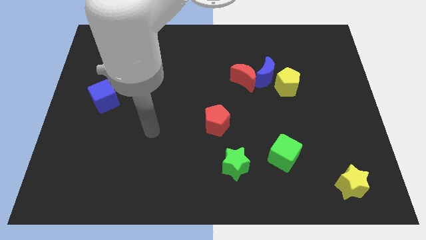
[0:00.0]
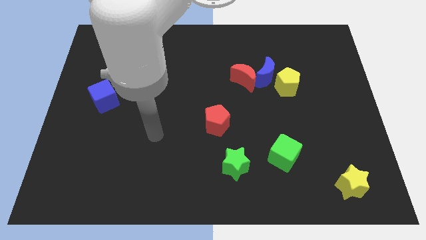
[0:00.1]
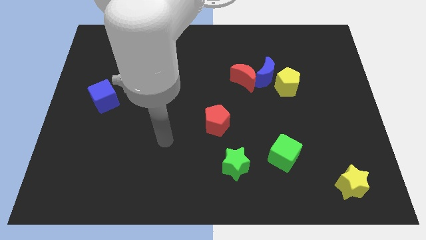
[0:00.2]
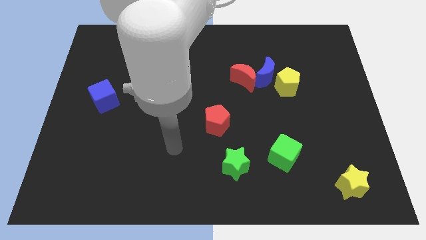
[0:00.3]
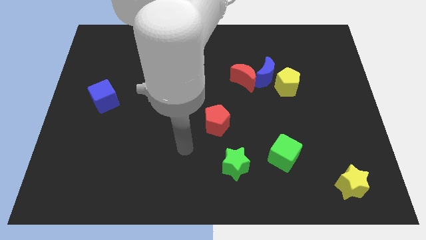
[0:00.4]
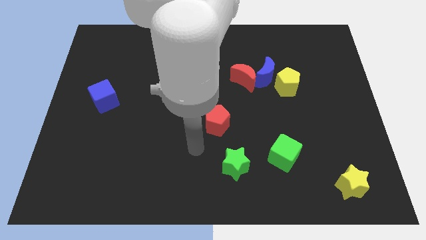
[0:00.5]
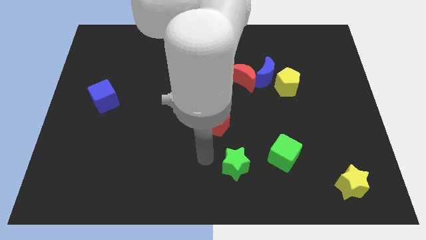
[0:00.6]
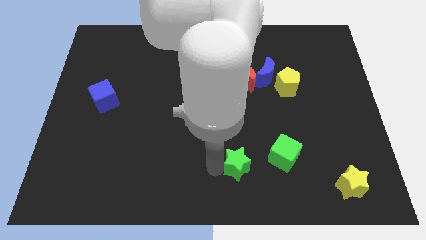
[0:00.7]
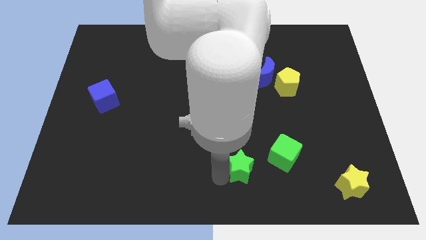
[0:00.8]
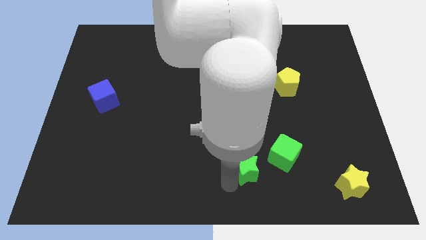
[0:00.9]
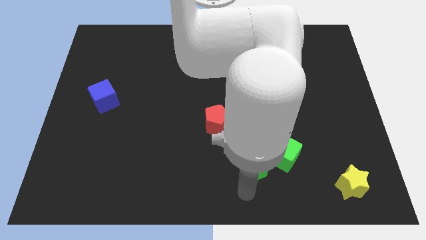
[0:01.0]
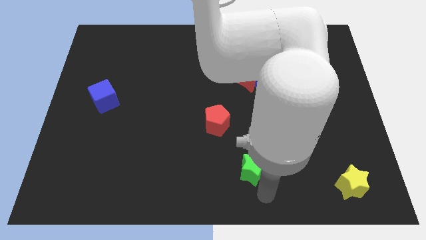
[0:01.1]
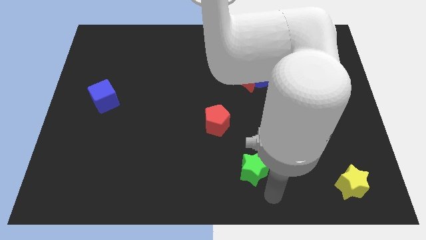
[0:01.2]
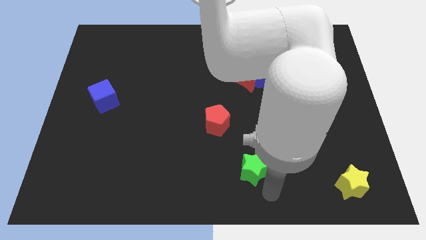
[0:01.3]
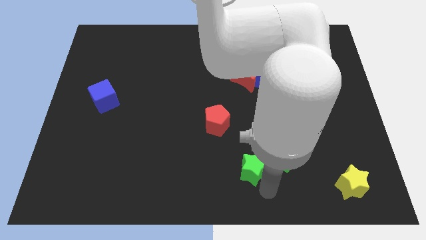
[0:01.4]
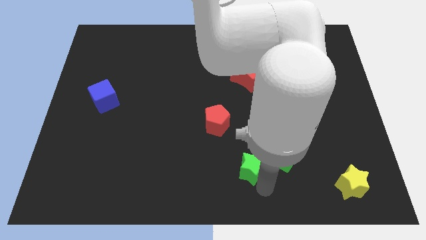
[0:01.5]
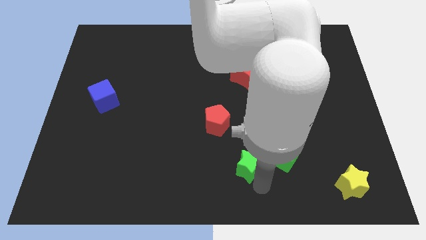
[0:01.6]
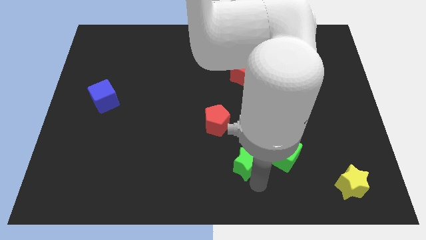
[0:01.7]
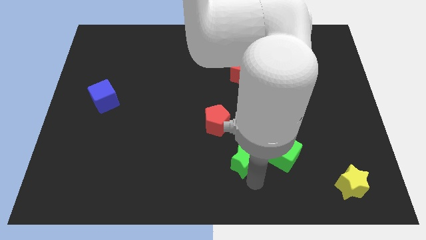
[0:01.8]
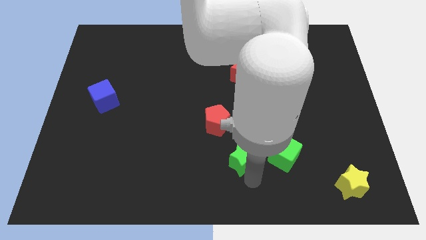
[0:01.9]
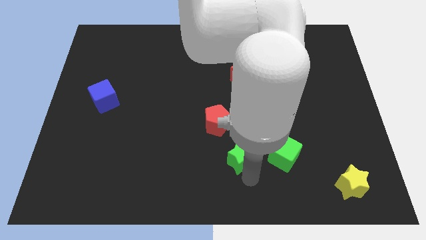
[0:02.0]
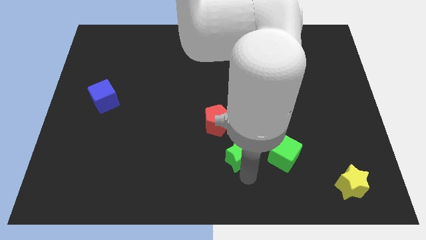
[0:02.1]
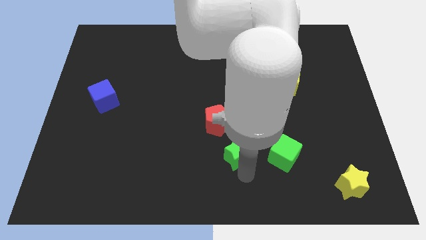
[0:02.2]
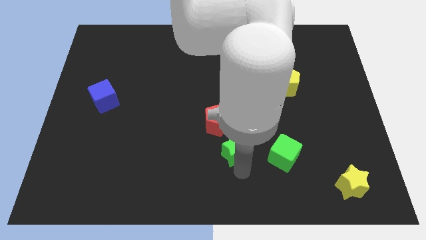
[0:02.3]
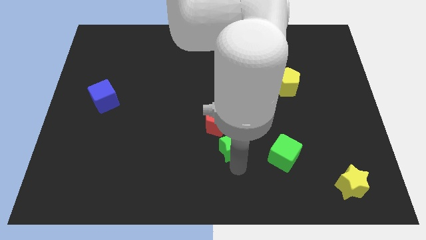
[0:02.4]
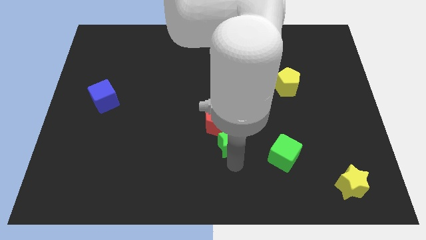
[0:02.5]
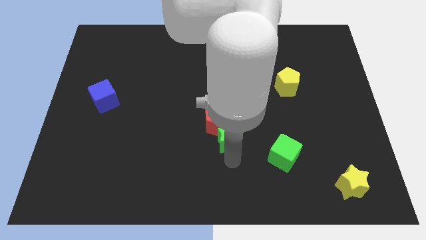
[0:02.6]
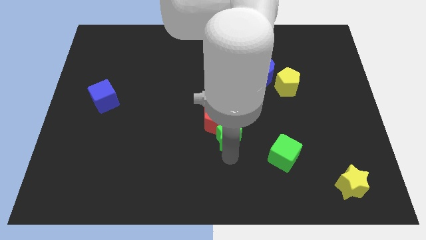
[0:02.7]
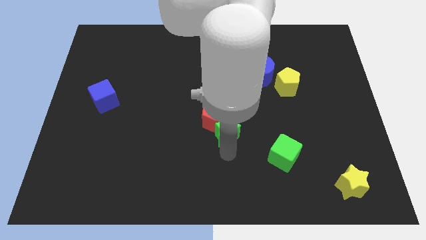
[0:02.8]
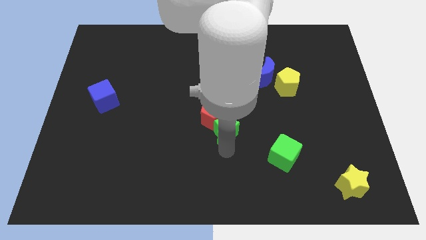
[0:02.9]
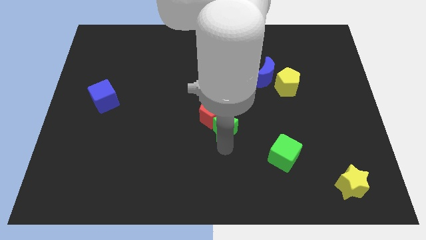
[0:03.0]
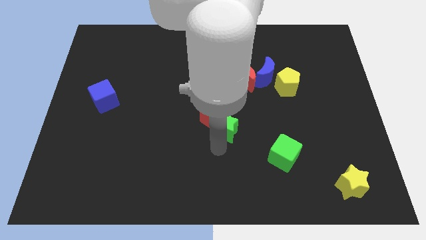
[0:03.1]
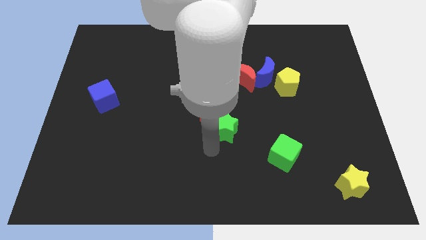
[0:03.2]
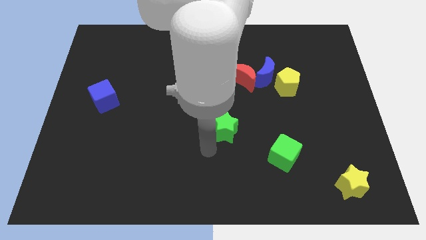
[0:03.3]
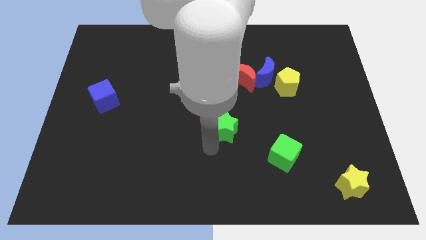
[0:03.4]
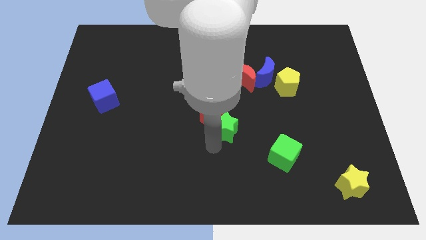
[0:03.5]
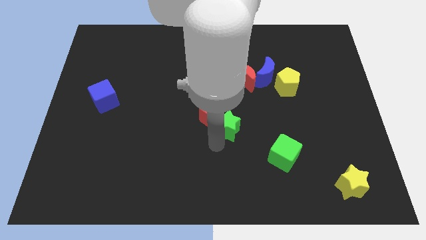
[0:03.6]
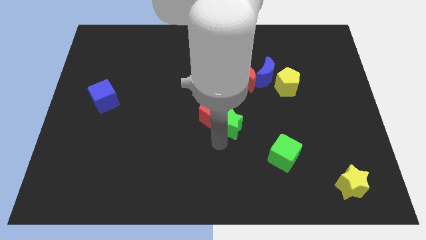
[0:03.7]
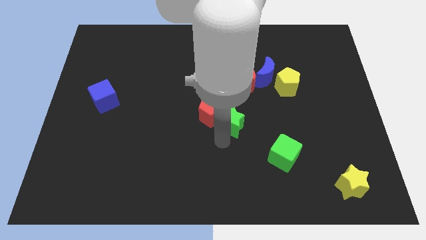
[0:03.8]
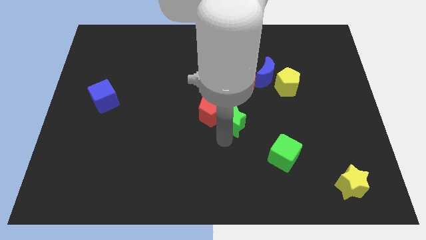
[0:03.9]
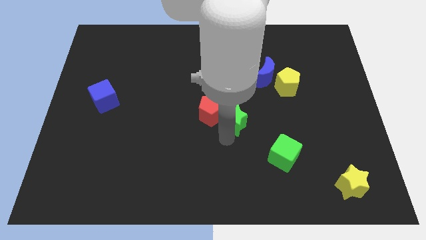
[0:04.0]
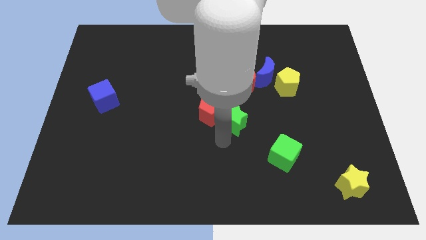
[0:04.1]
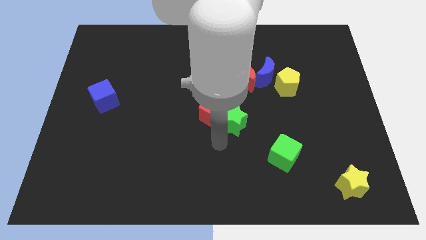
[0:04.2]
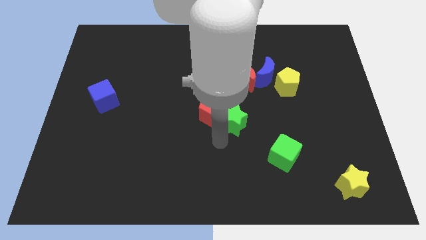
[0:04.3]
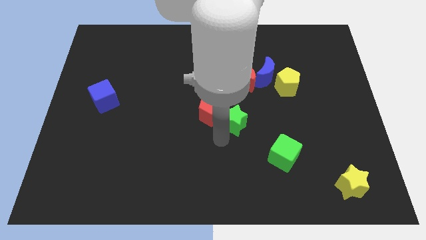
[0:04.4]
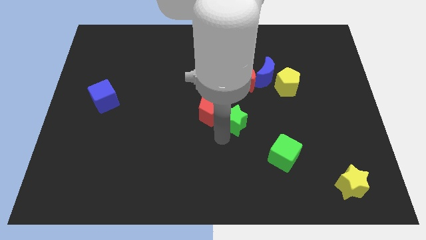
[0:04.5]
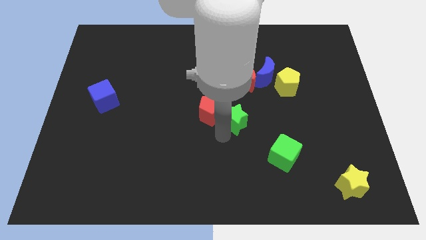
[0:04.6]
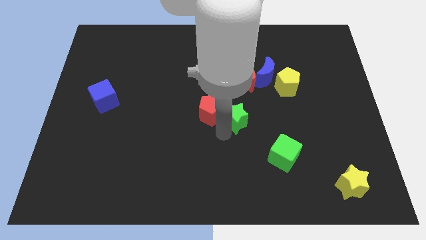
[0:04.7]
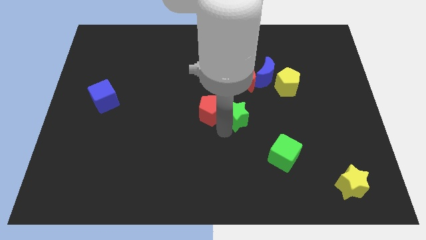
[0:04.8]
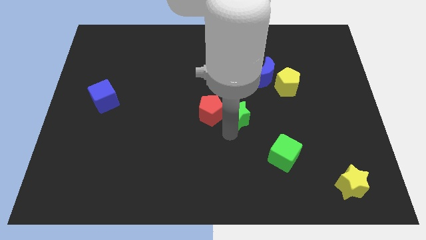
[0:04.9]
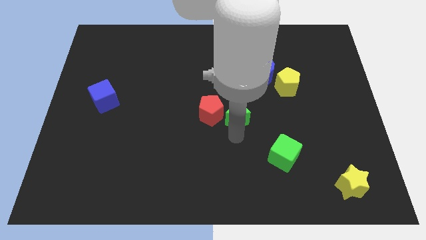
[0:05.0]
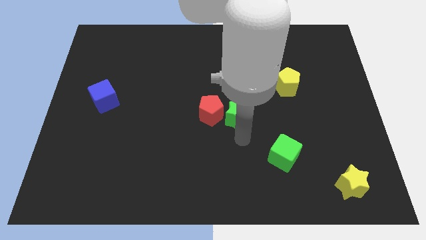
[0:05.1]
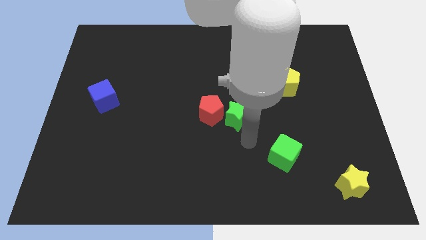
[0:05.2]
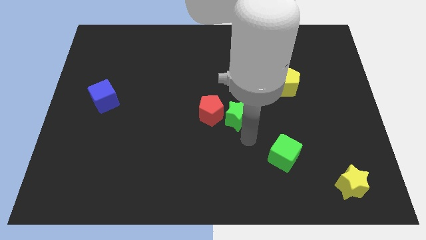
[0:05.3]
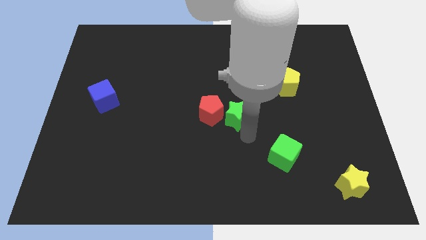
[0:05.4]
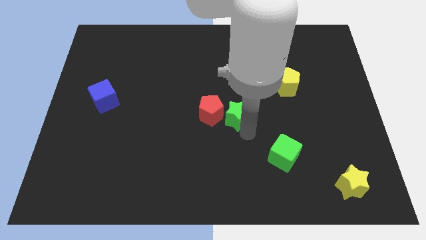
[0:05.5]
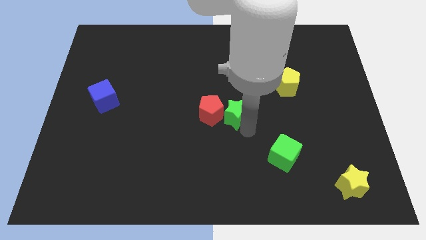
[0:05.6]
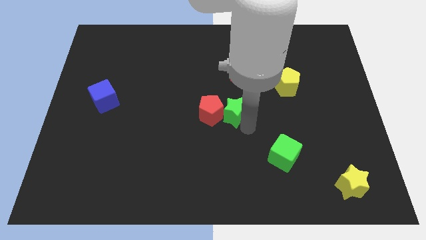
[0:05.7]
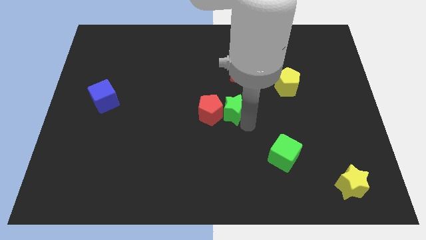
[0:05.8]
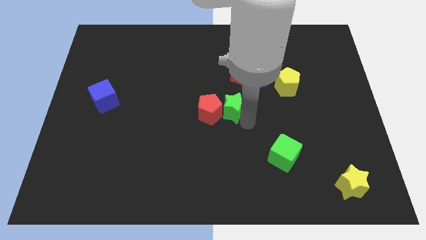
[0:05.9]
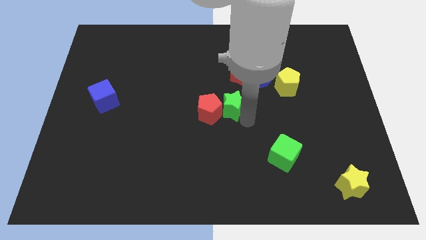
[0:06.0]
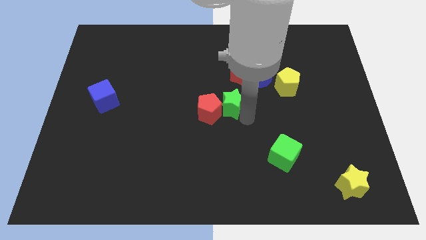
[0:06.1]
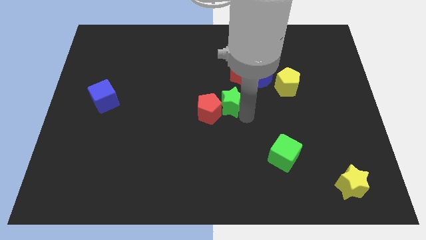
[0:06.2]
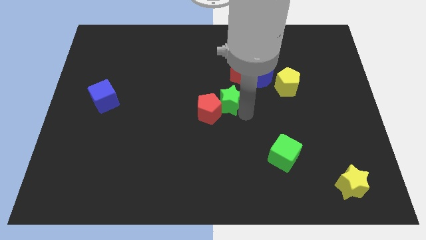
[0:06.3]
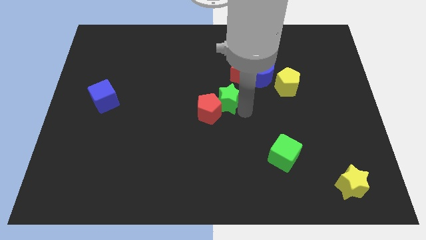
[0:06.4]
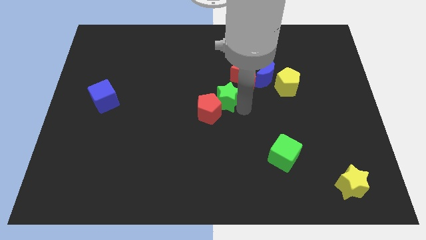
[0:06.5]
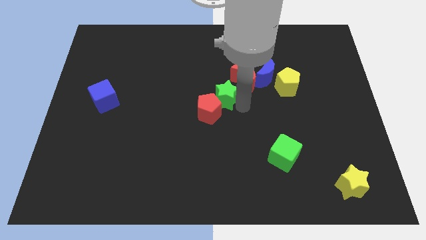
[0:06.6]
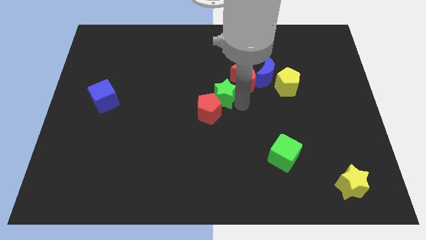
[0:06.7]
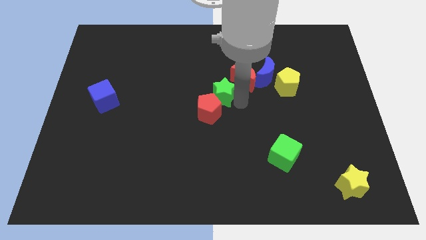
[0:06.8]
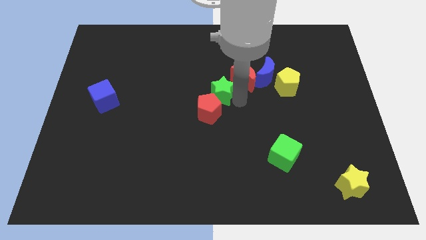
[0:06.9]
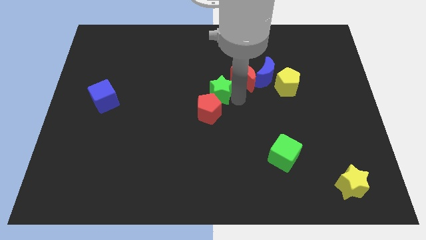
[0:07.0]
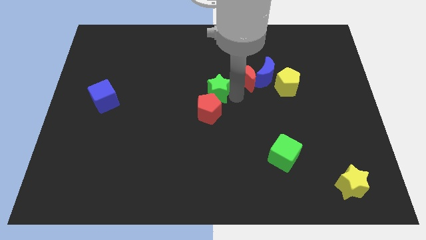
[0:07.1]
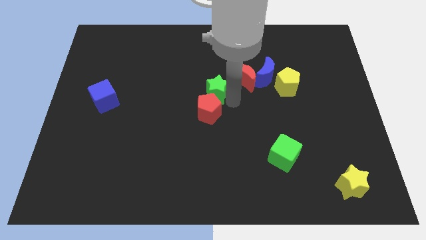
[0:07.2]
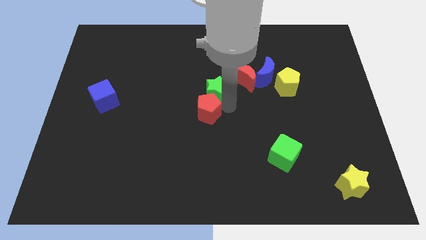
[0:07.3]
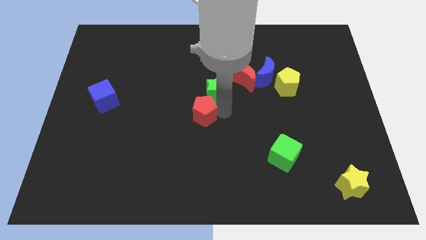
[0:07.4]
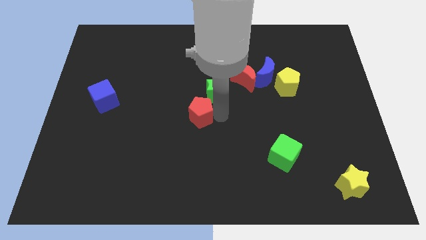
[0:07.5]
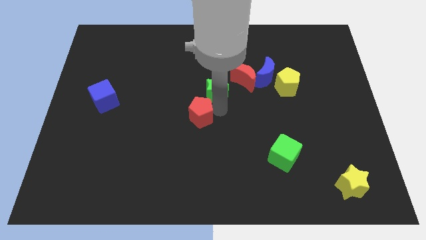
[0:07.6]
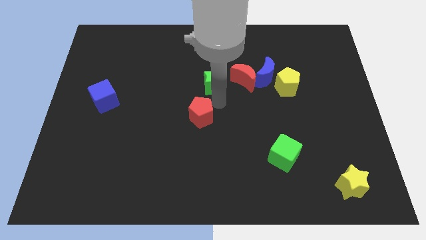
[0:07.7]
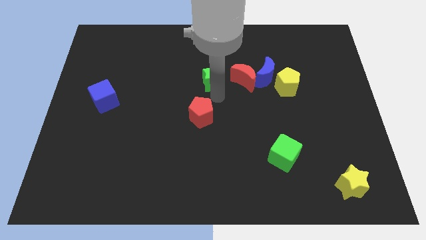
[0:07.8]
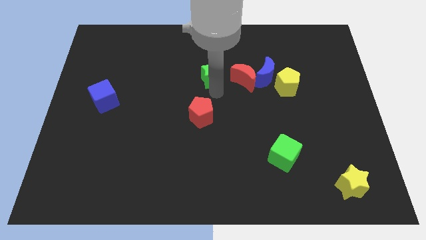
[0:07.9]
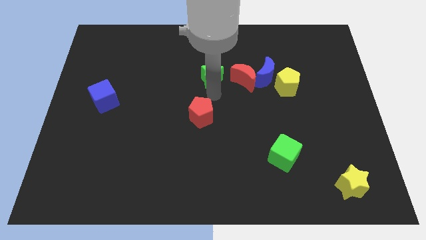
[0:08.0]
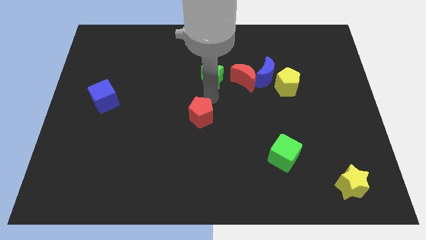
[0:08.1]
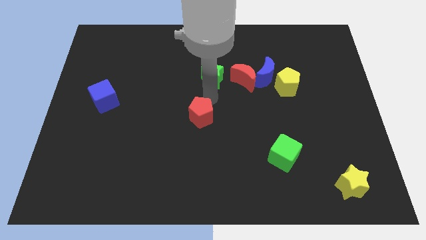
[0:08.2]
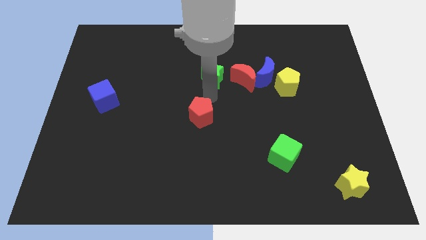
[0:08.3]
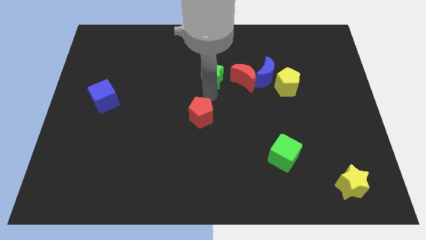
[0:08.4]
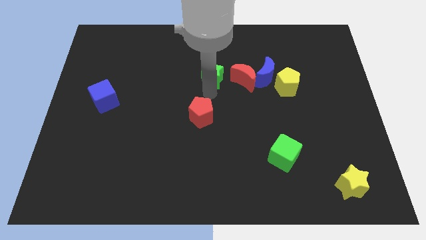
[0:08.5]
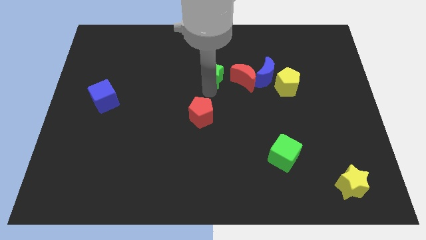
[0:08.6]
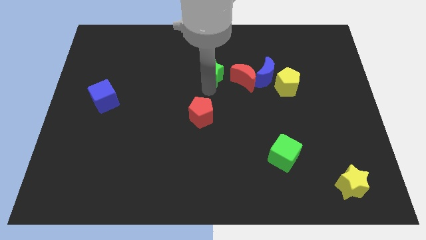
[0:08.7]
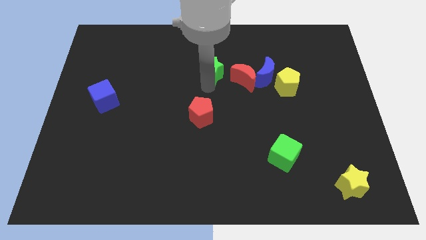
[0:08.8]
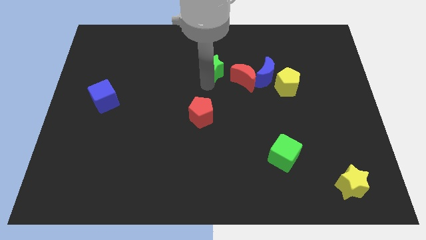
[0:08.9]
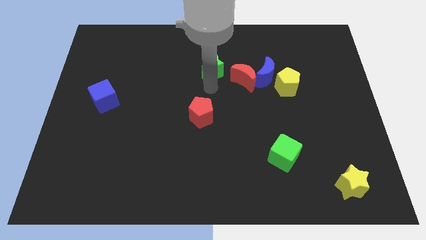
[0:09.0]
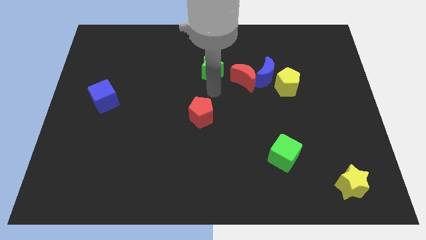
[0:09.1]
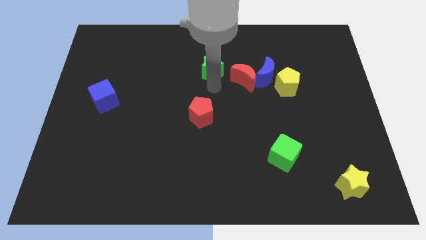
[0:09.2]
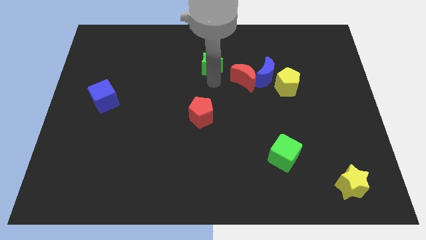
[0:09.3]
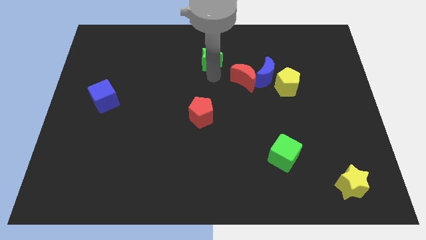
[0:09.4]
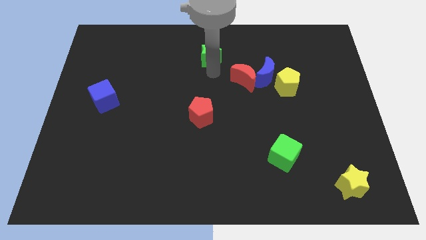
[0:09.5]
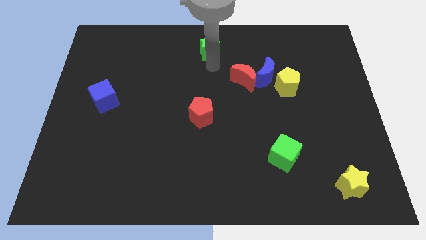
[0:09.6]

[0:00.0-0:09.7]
slide the green star to the top side
